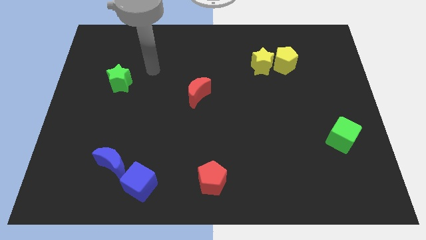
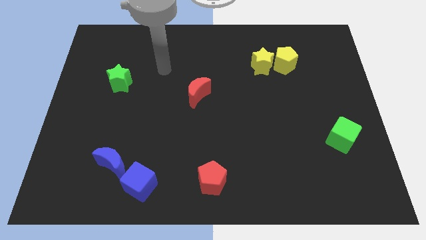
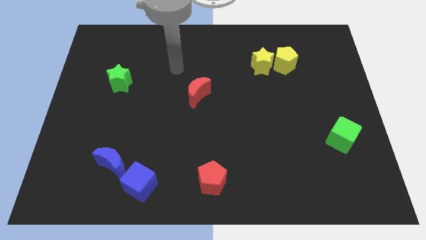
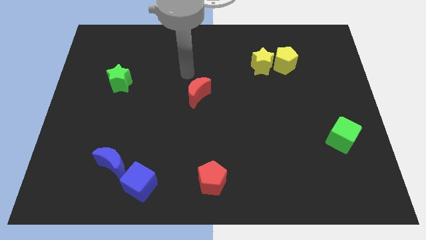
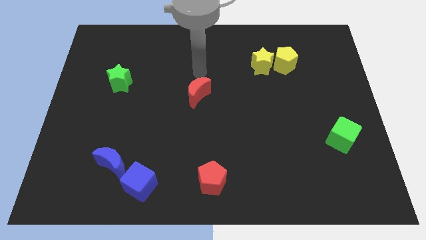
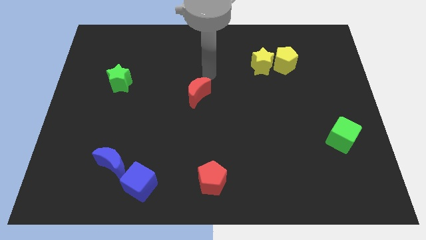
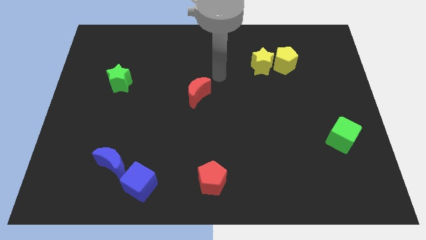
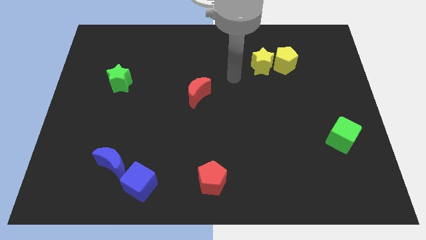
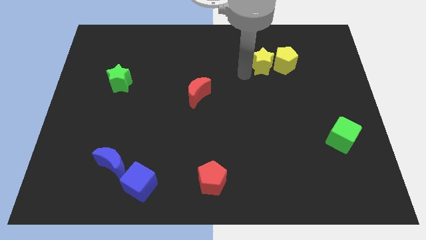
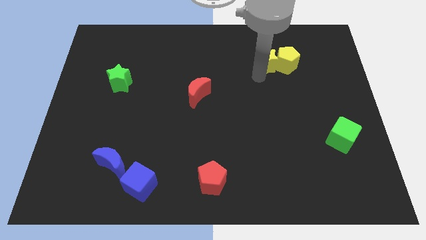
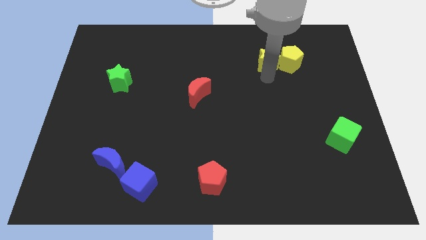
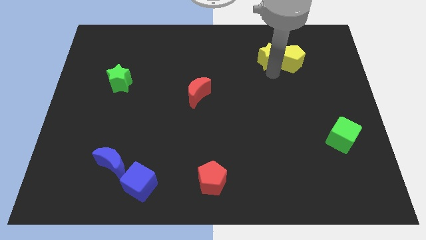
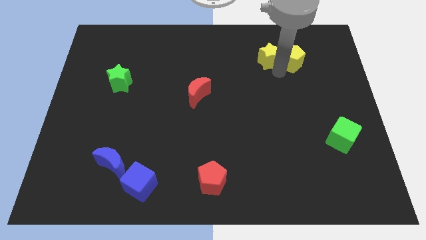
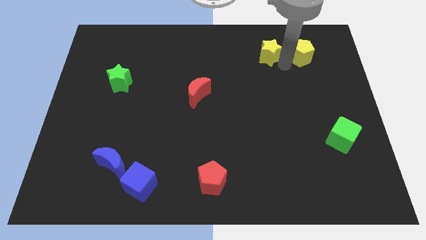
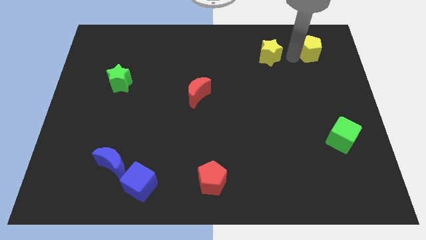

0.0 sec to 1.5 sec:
pull the yellow star apart from the yellow pentagon

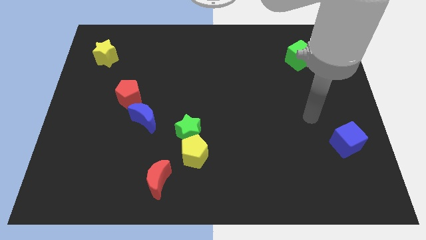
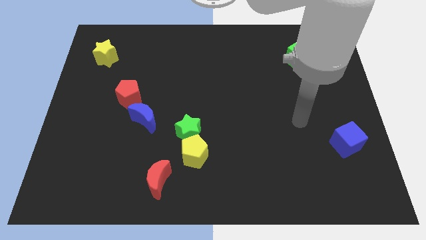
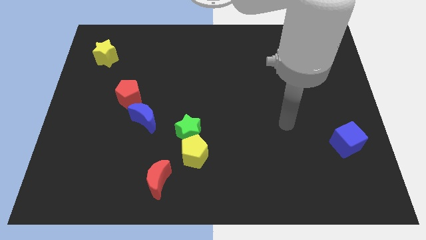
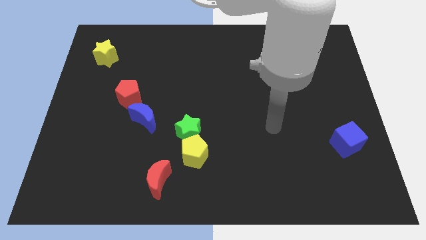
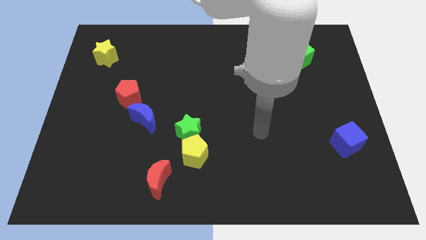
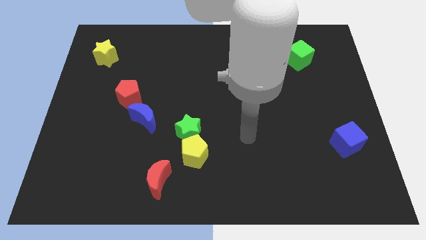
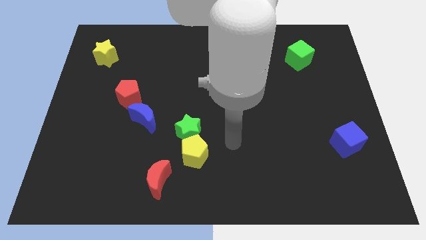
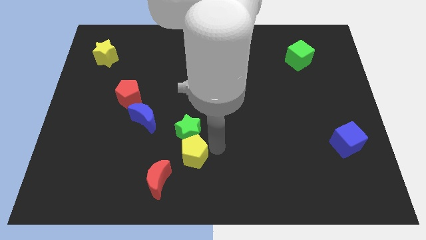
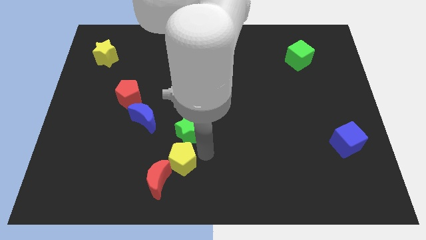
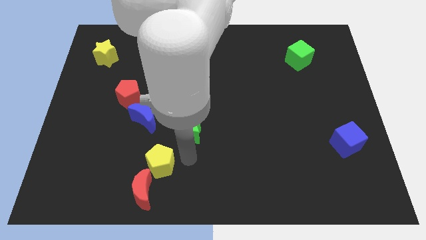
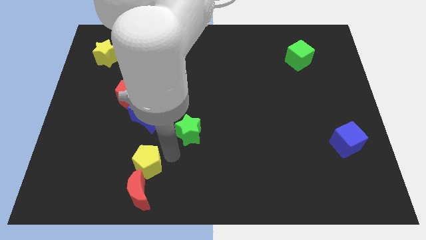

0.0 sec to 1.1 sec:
move the green star away from the yellow pentagon

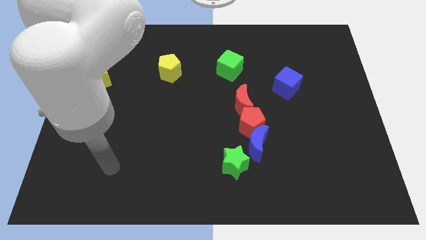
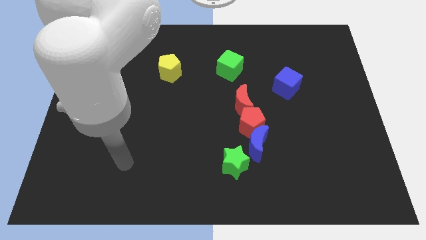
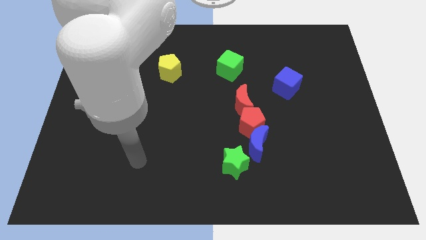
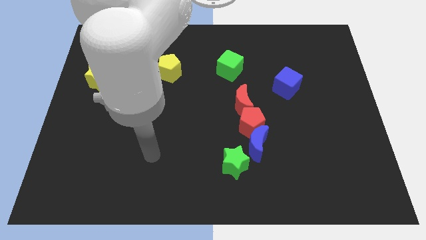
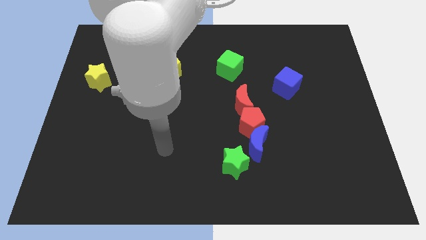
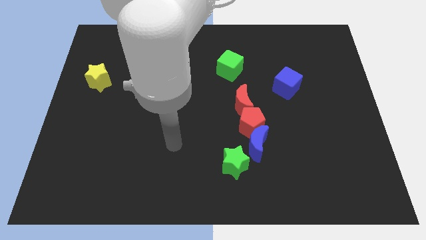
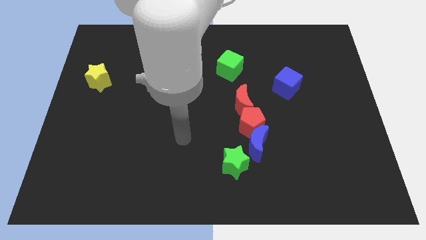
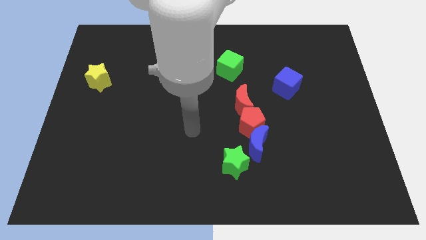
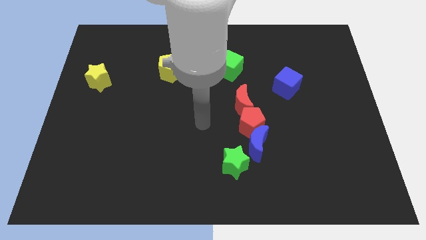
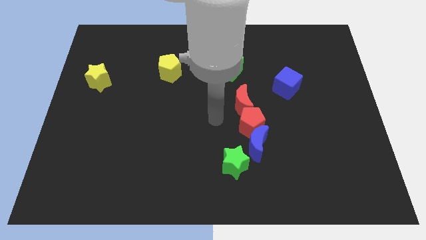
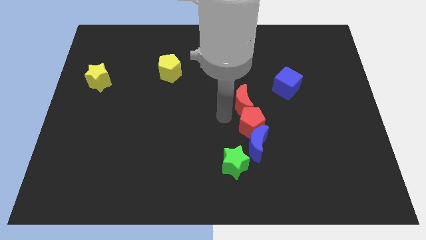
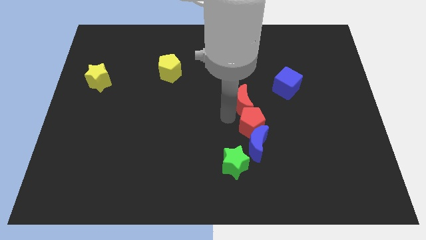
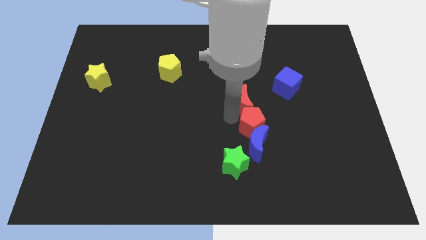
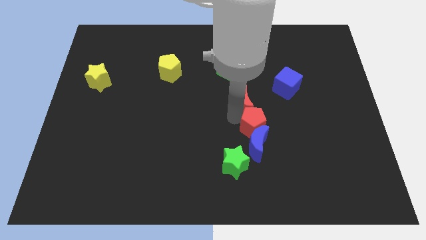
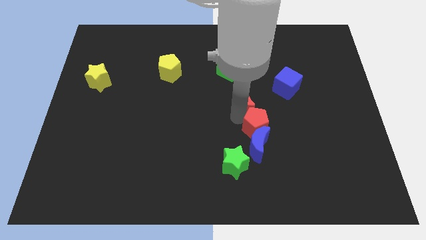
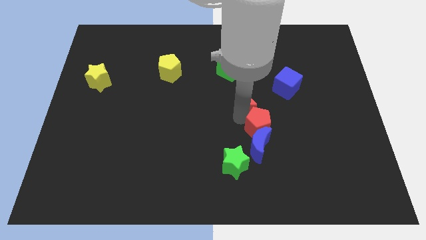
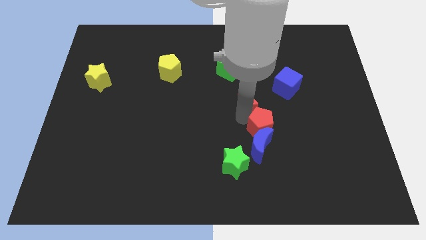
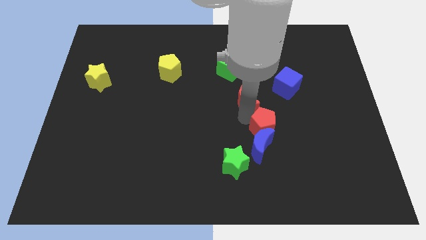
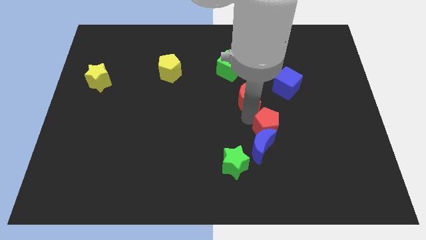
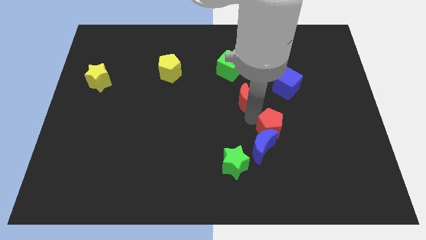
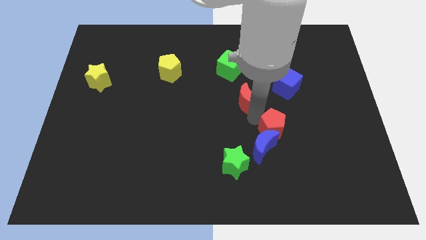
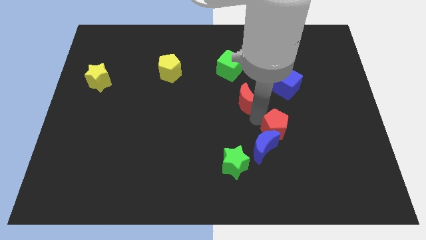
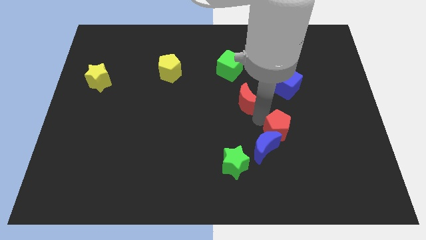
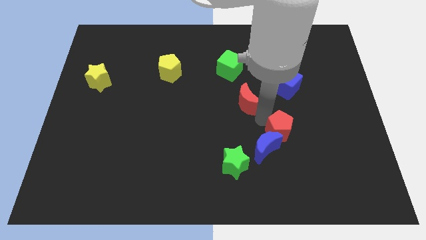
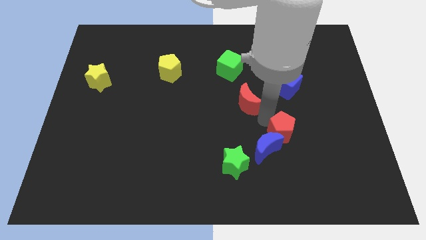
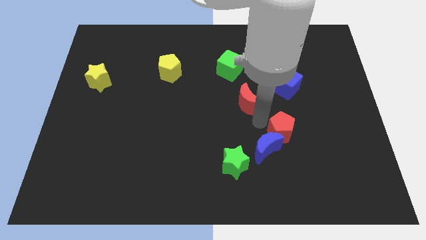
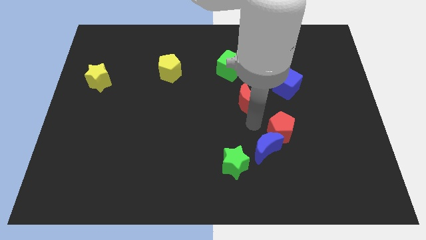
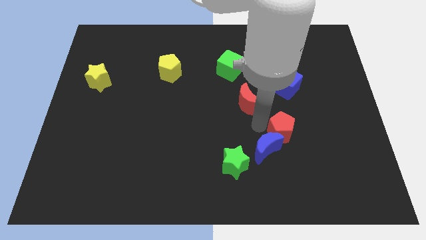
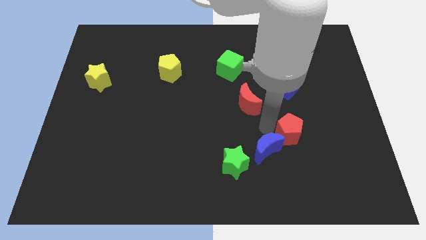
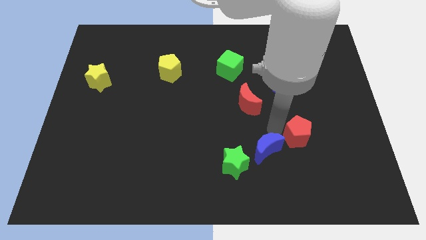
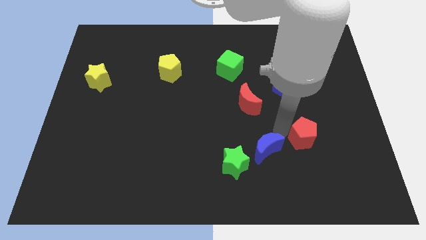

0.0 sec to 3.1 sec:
pull the red pentagon apart from the blue moon and red moon

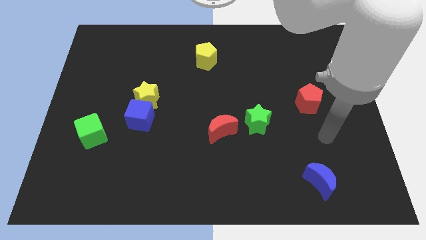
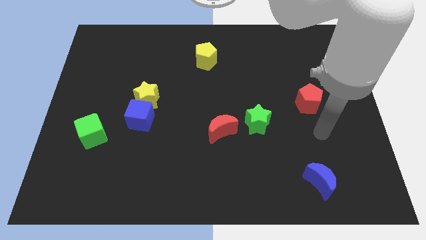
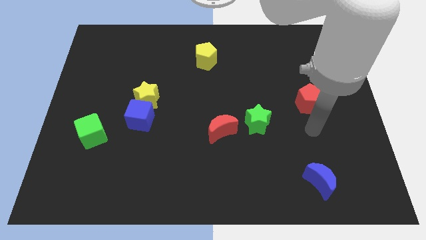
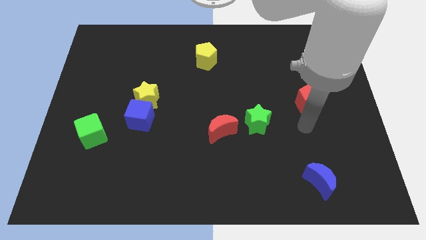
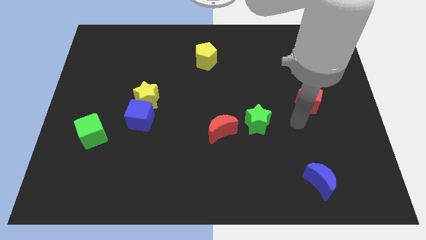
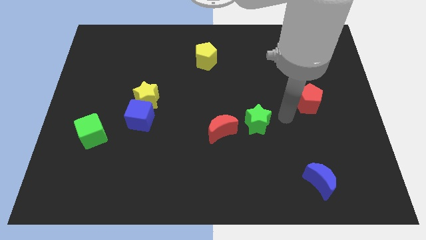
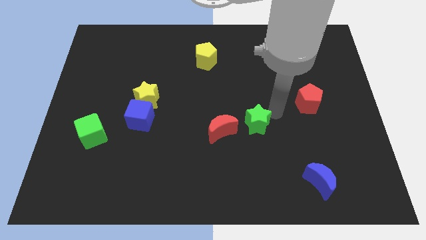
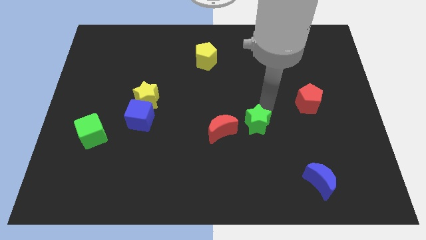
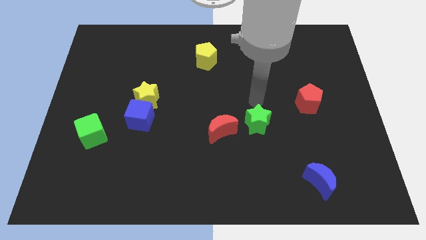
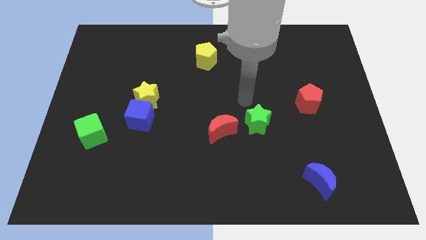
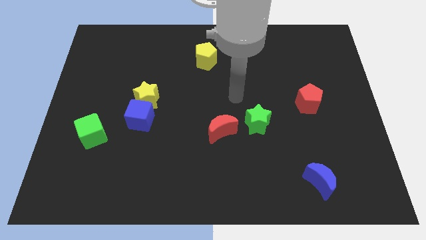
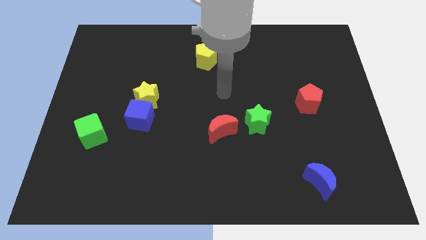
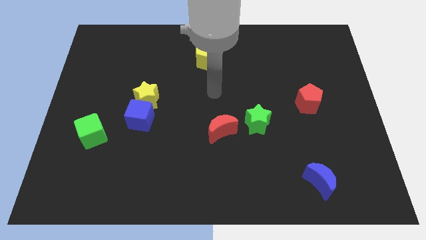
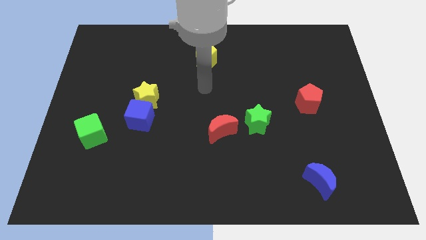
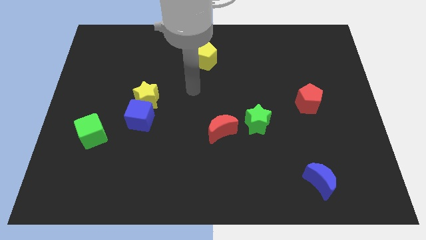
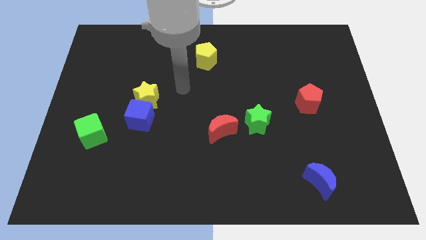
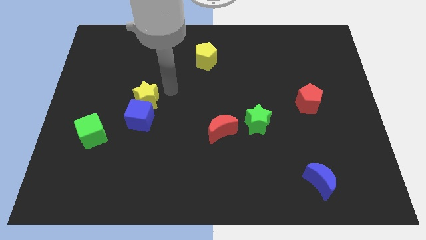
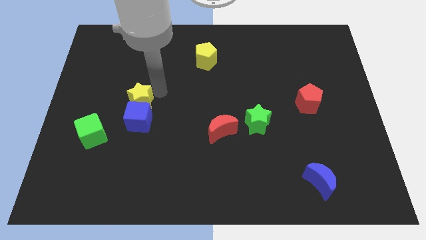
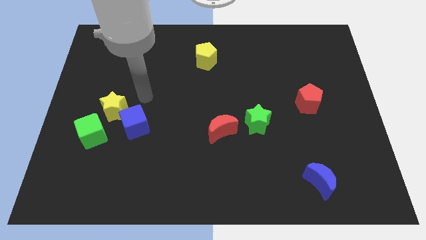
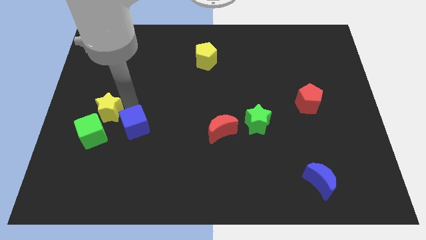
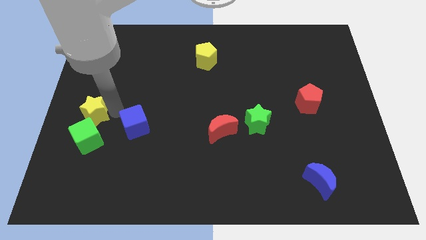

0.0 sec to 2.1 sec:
pull the blue cube apart from the yellow star

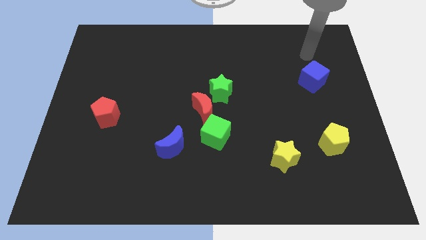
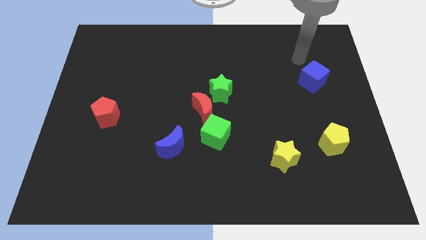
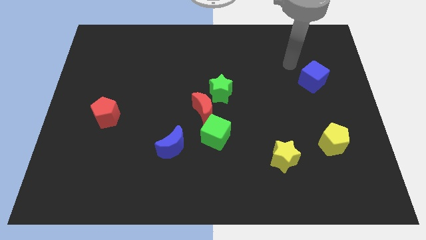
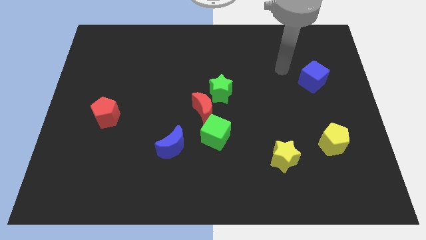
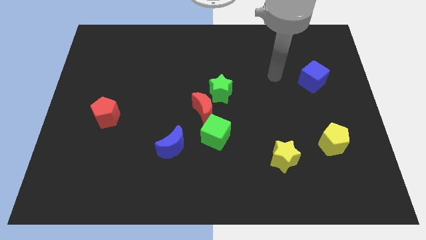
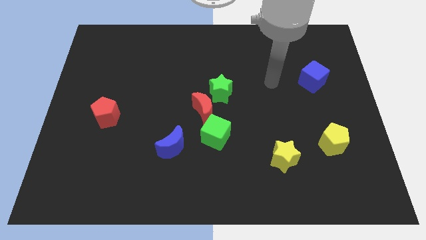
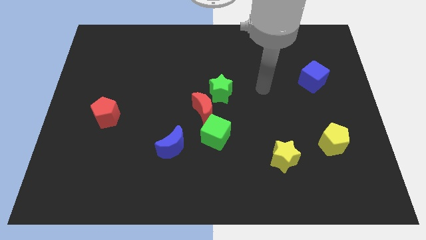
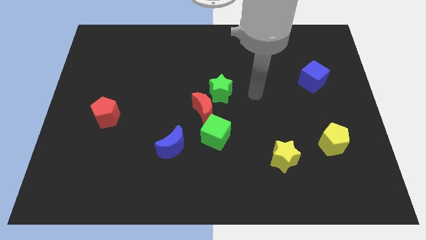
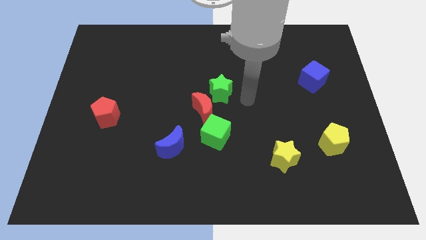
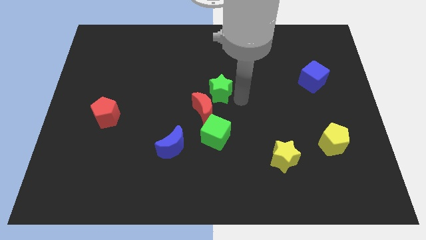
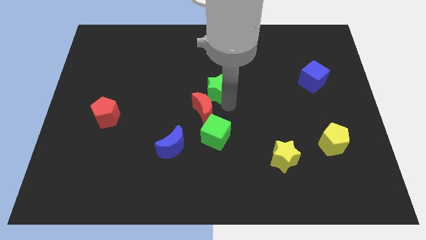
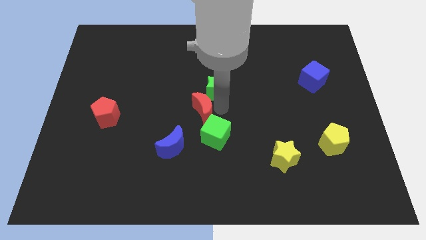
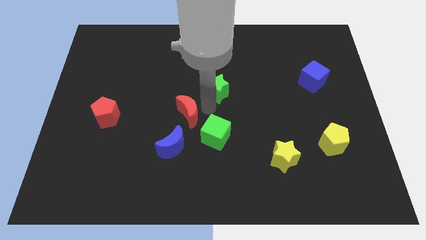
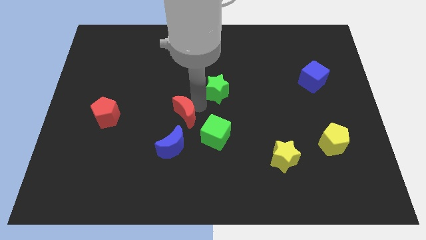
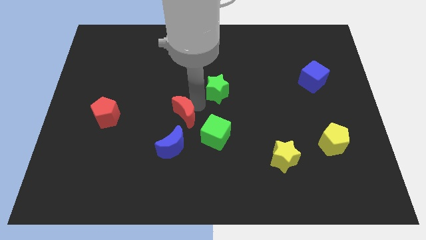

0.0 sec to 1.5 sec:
move the green star away from the red moon
